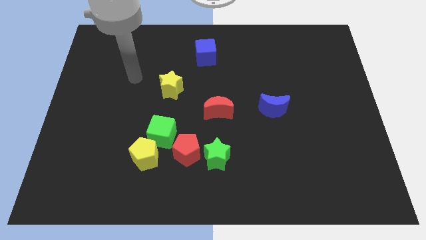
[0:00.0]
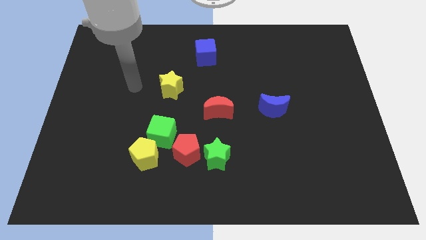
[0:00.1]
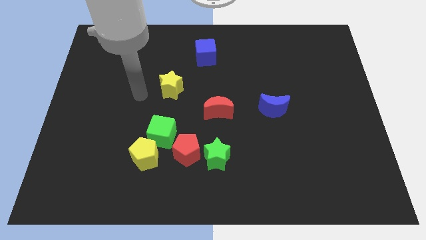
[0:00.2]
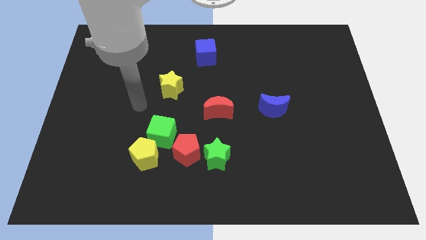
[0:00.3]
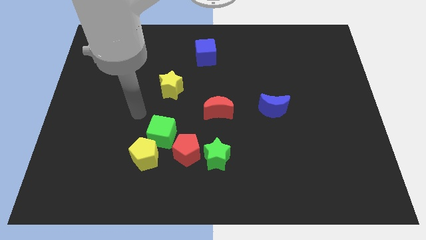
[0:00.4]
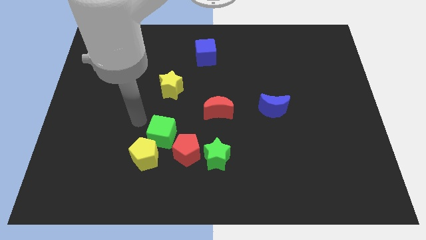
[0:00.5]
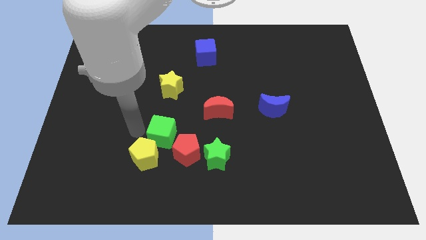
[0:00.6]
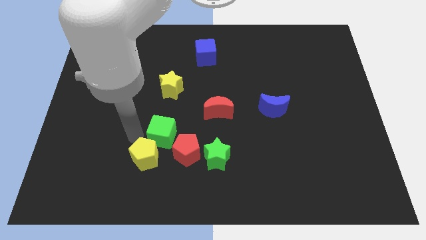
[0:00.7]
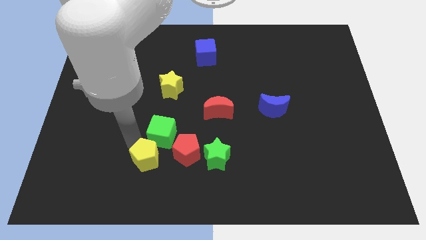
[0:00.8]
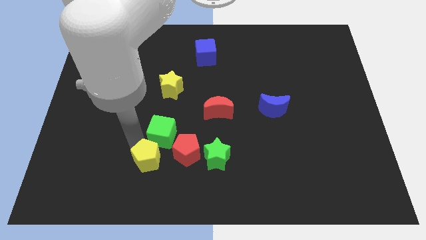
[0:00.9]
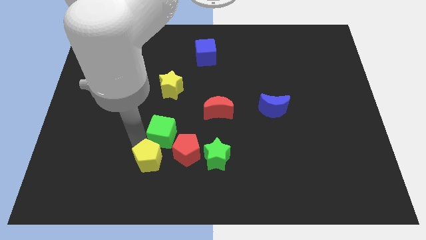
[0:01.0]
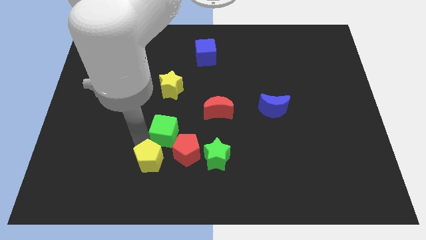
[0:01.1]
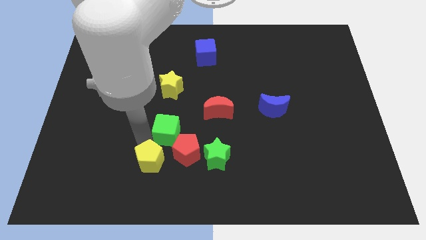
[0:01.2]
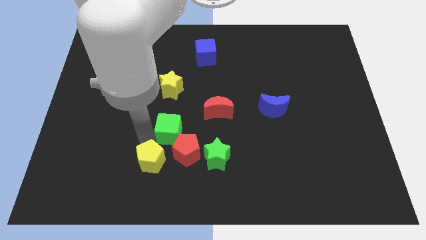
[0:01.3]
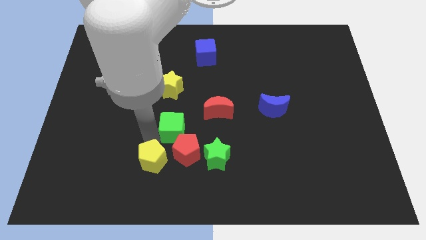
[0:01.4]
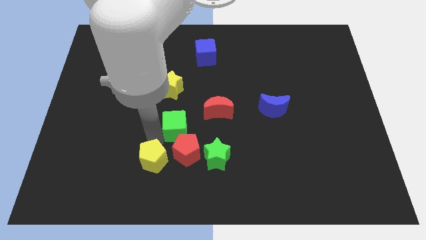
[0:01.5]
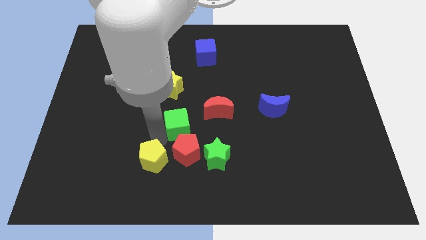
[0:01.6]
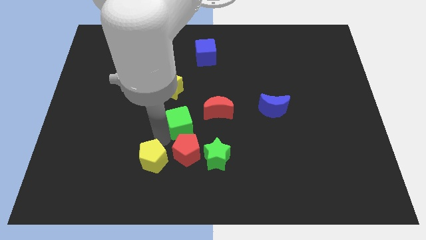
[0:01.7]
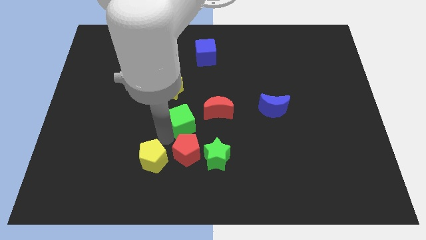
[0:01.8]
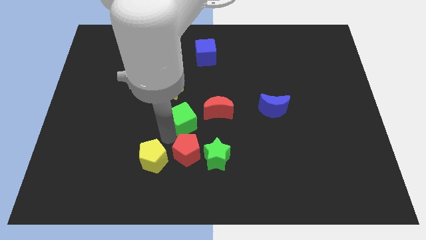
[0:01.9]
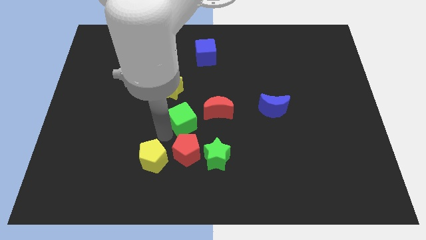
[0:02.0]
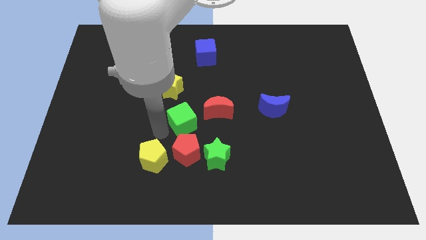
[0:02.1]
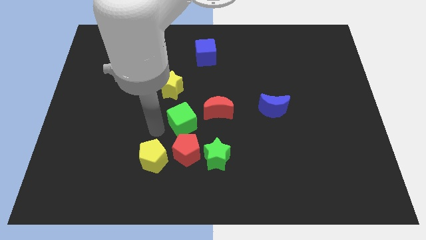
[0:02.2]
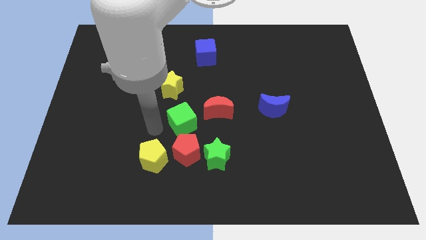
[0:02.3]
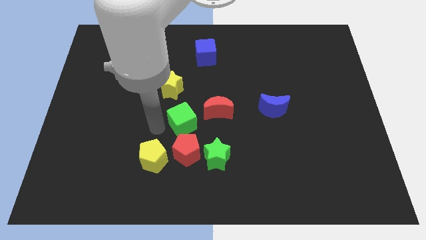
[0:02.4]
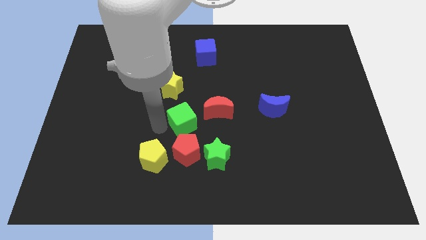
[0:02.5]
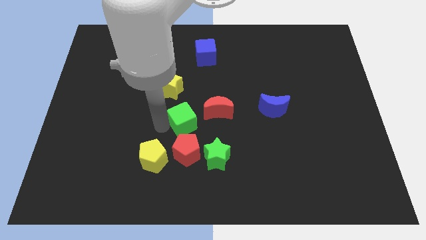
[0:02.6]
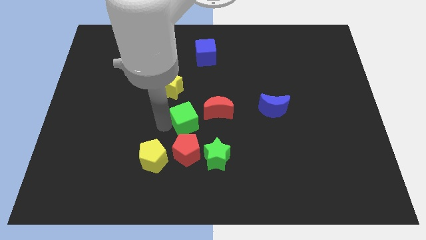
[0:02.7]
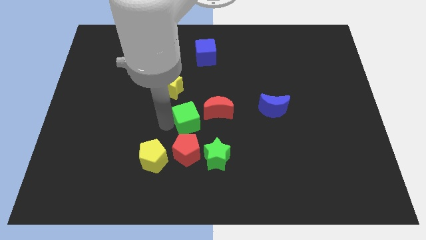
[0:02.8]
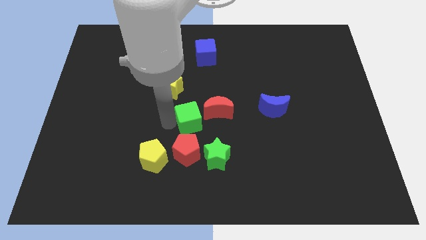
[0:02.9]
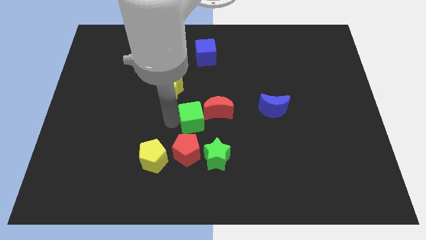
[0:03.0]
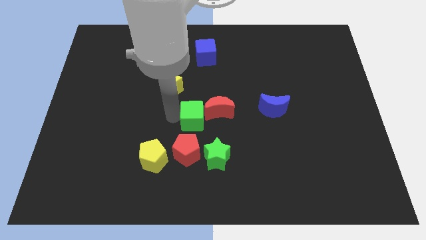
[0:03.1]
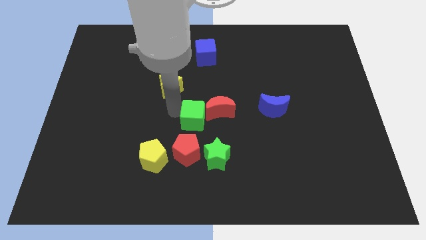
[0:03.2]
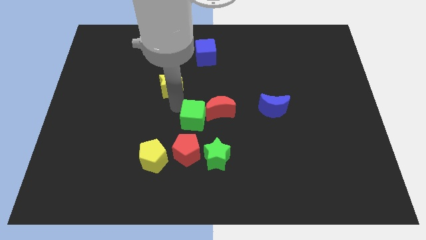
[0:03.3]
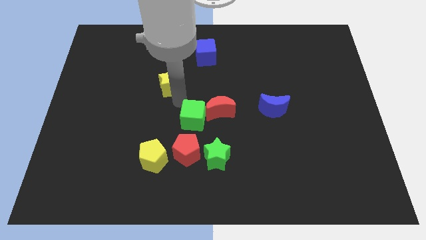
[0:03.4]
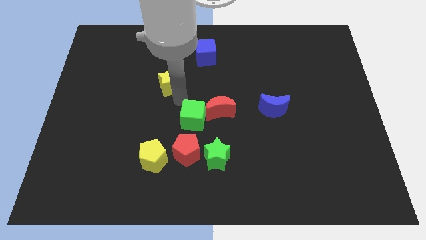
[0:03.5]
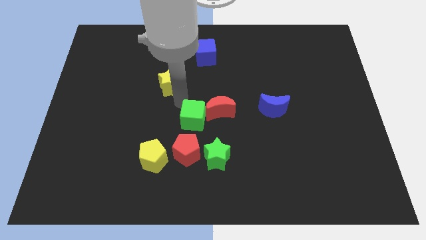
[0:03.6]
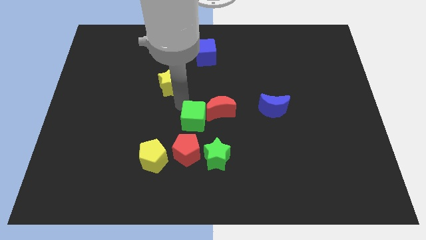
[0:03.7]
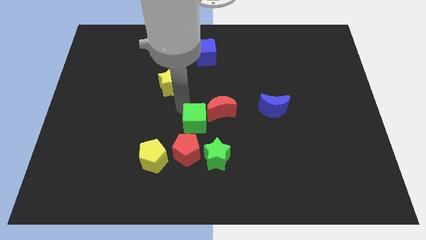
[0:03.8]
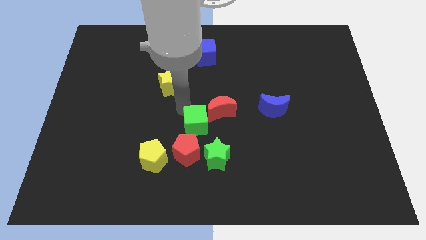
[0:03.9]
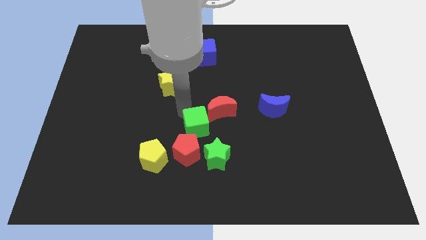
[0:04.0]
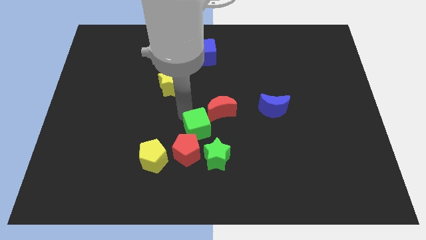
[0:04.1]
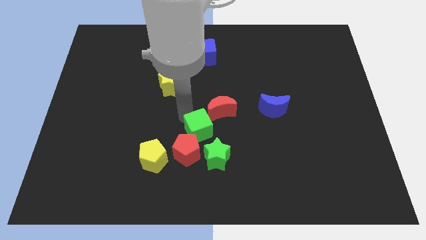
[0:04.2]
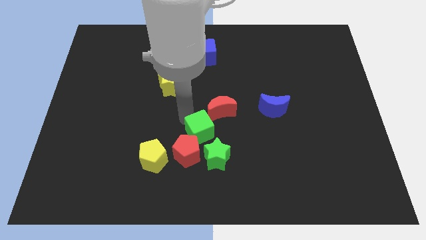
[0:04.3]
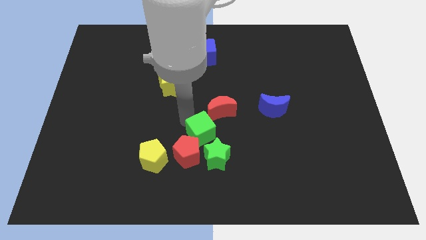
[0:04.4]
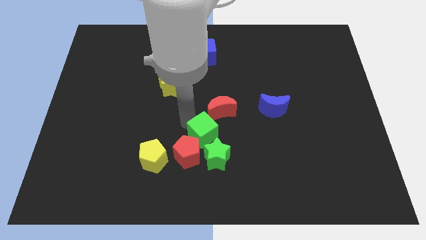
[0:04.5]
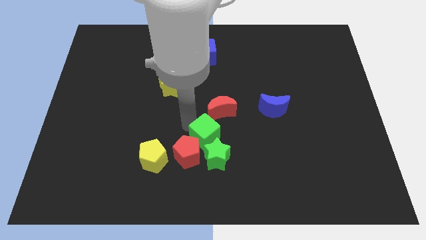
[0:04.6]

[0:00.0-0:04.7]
put the green cube close to the green star

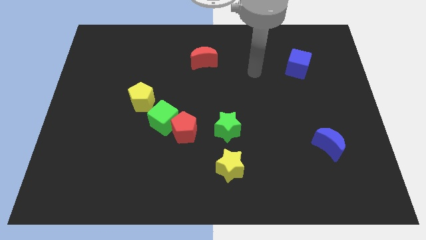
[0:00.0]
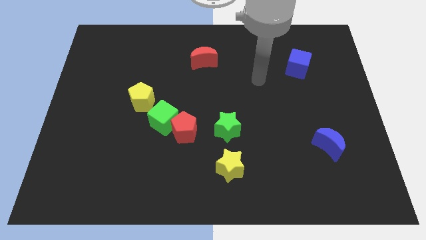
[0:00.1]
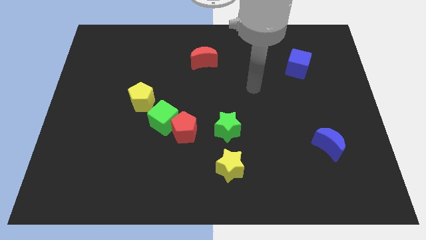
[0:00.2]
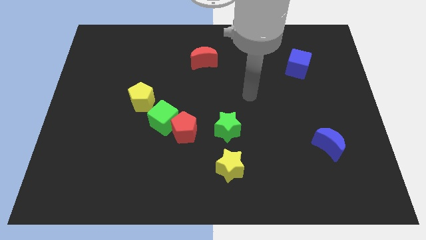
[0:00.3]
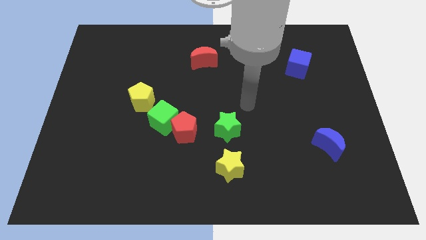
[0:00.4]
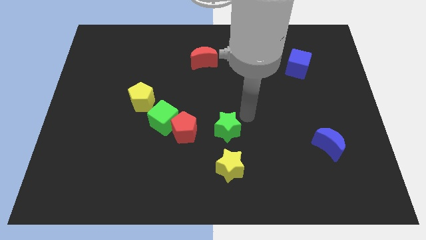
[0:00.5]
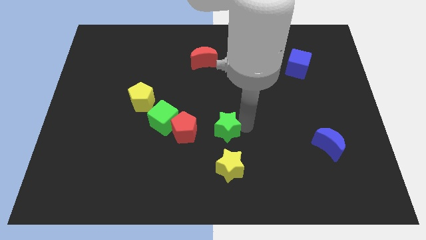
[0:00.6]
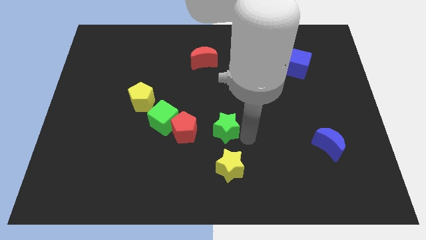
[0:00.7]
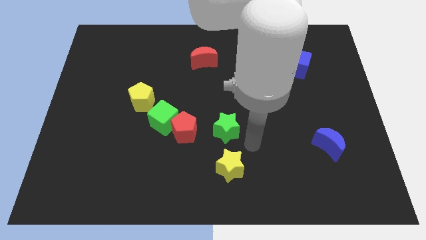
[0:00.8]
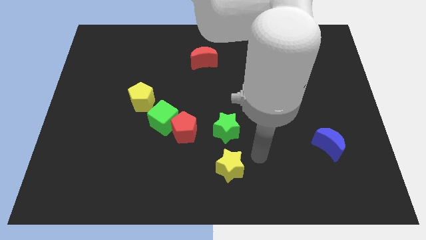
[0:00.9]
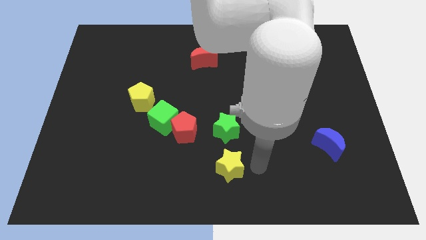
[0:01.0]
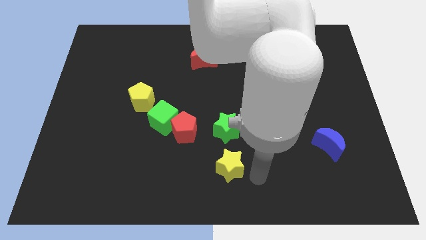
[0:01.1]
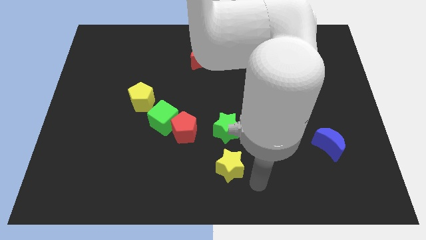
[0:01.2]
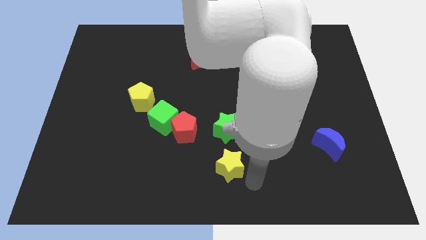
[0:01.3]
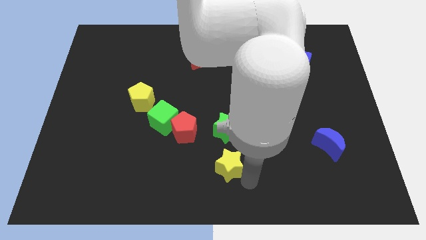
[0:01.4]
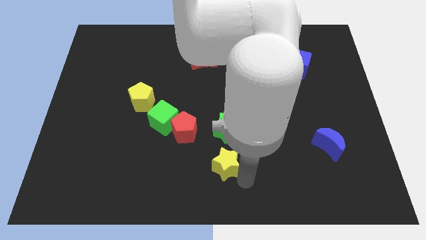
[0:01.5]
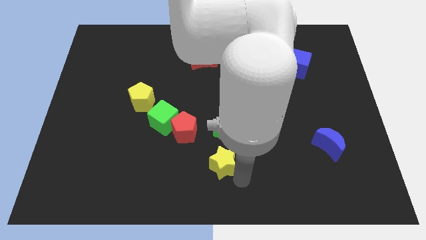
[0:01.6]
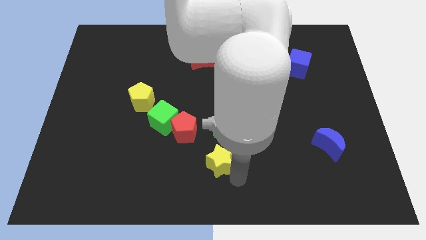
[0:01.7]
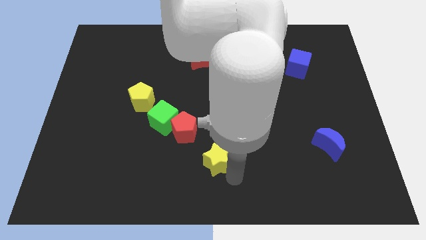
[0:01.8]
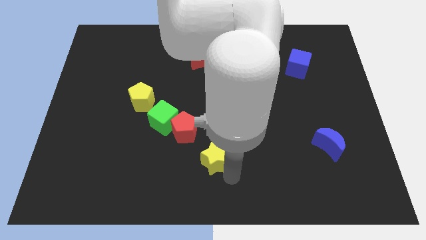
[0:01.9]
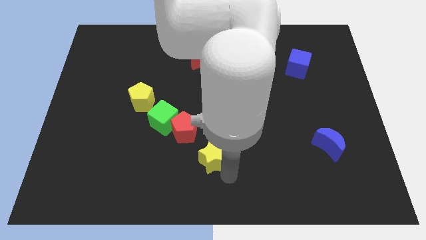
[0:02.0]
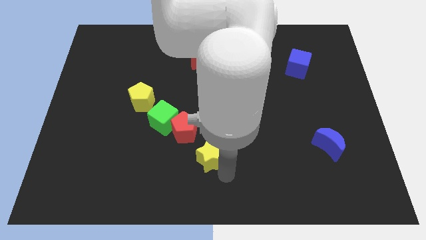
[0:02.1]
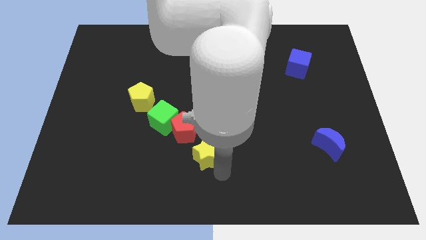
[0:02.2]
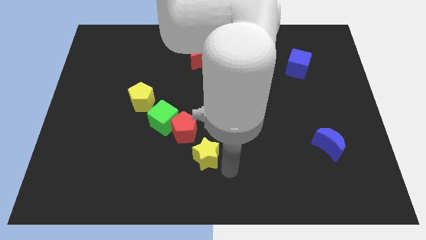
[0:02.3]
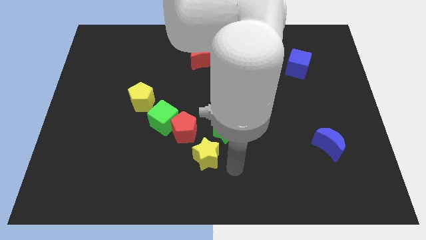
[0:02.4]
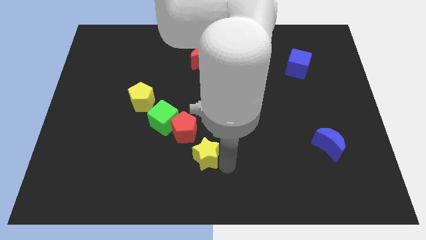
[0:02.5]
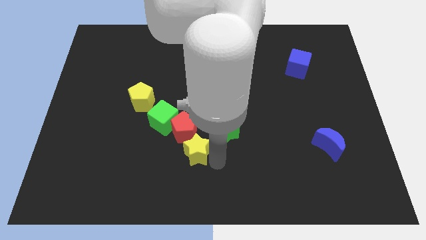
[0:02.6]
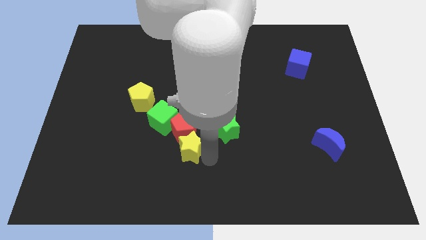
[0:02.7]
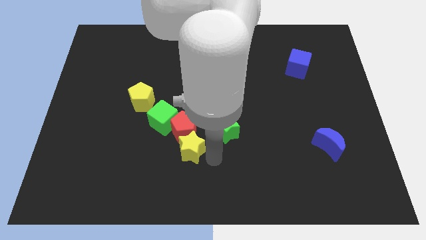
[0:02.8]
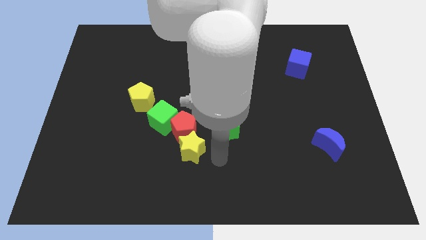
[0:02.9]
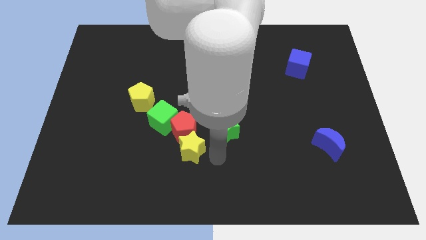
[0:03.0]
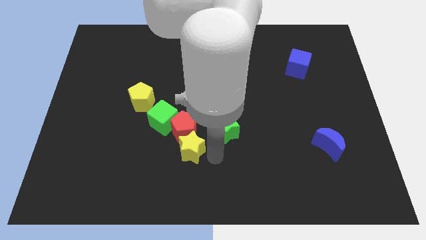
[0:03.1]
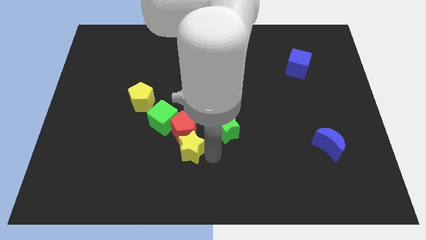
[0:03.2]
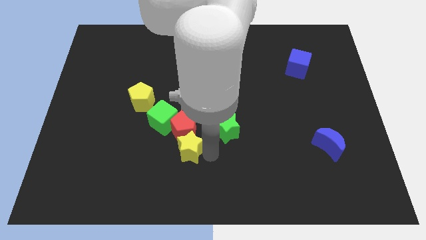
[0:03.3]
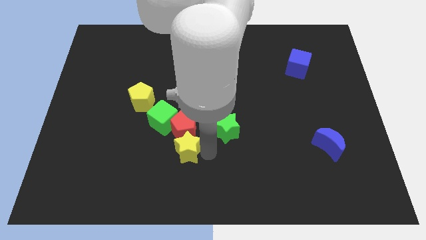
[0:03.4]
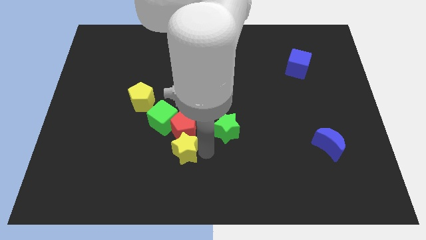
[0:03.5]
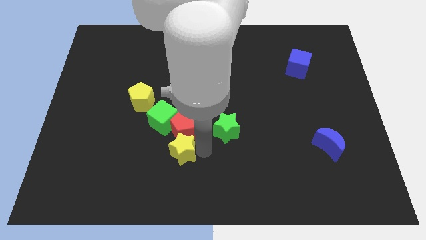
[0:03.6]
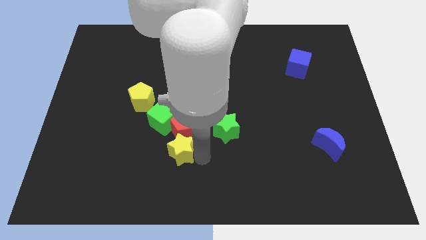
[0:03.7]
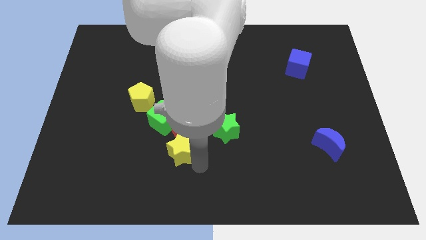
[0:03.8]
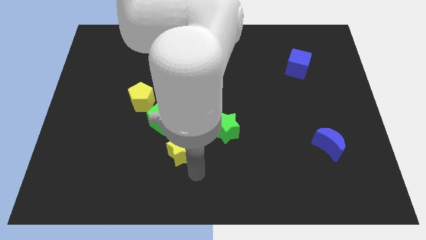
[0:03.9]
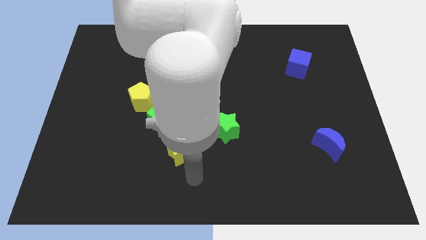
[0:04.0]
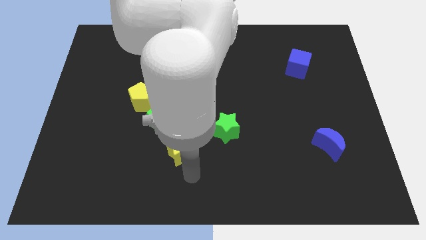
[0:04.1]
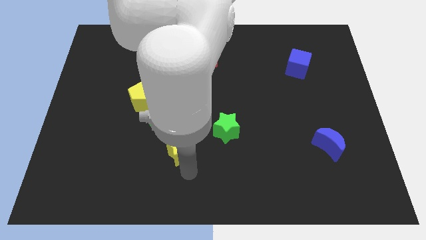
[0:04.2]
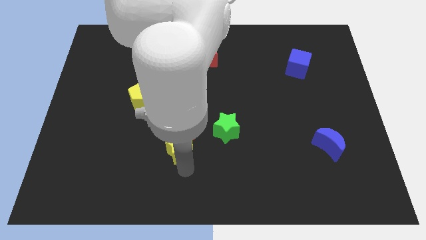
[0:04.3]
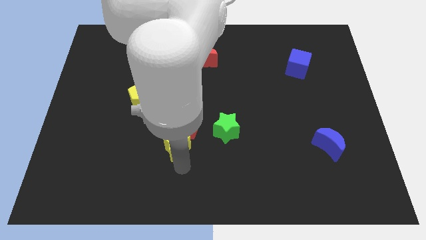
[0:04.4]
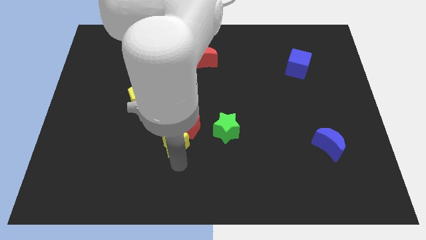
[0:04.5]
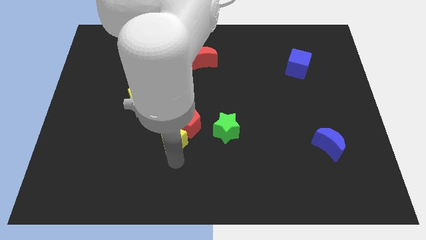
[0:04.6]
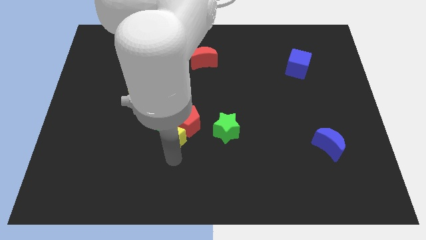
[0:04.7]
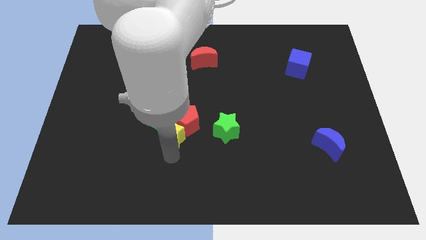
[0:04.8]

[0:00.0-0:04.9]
put the yellow star to the green cube
